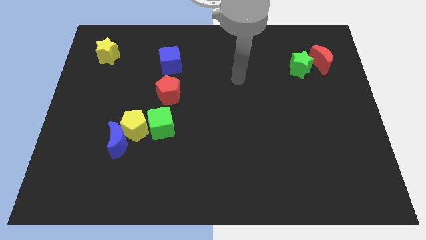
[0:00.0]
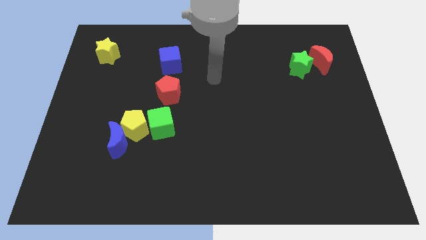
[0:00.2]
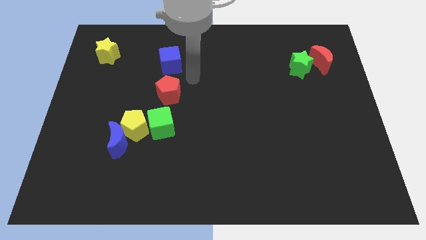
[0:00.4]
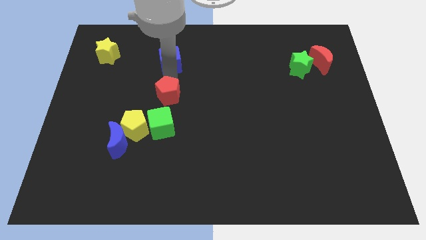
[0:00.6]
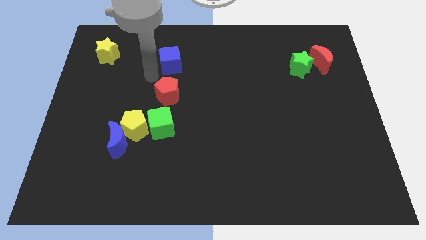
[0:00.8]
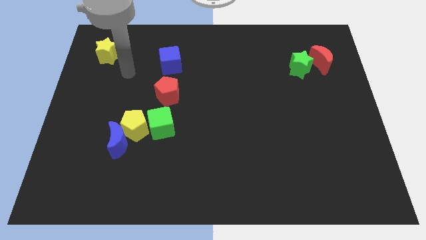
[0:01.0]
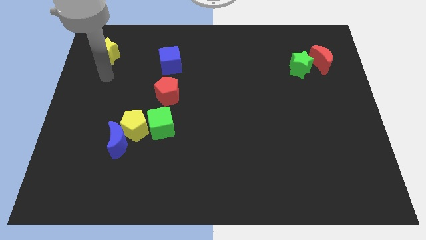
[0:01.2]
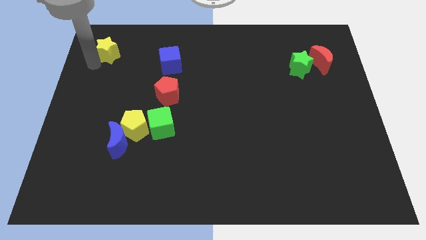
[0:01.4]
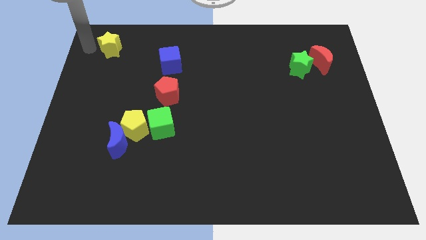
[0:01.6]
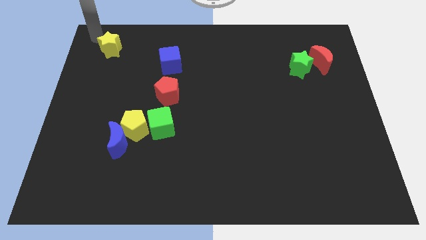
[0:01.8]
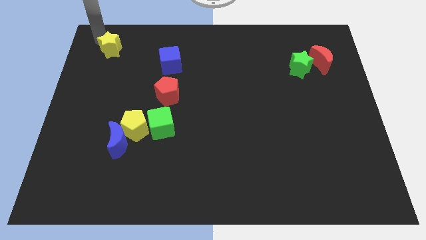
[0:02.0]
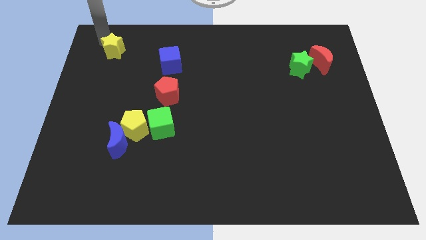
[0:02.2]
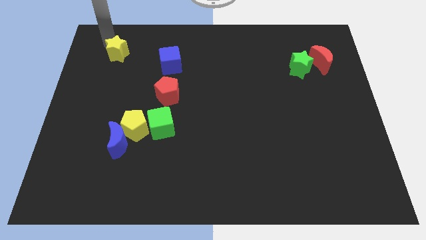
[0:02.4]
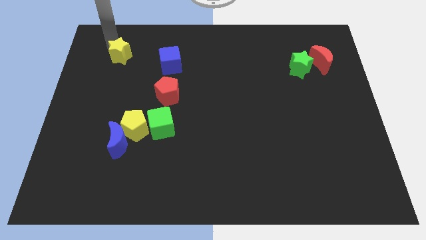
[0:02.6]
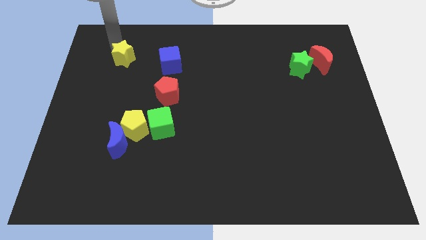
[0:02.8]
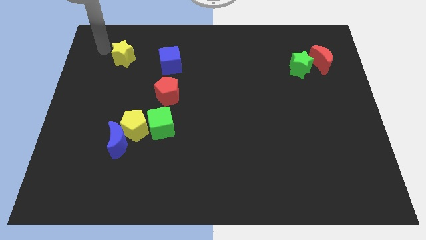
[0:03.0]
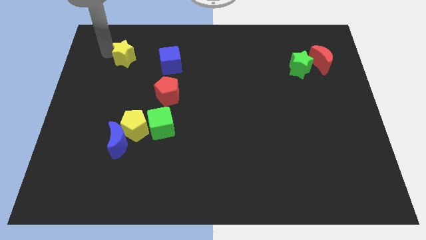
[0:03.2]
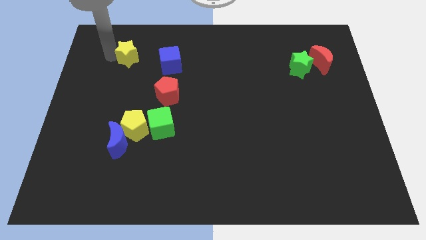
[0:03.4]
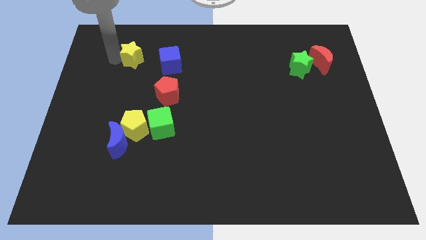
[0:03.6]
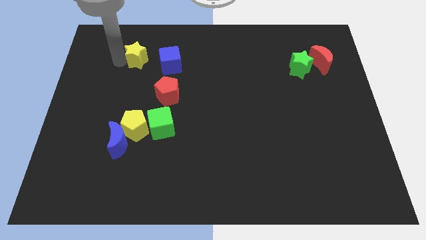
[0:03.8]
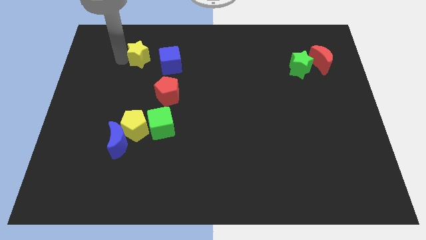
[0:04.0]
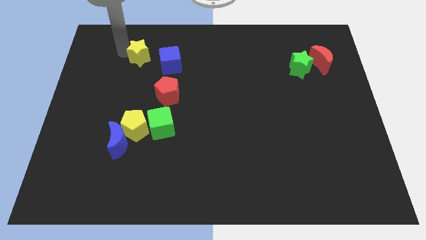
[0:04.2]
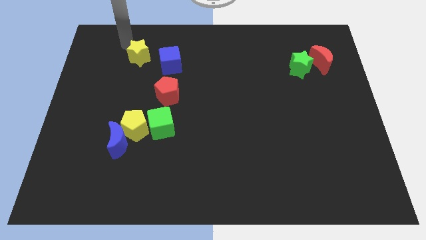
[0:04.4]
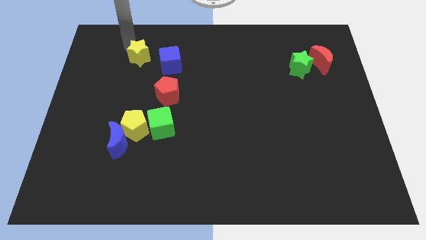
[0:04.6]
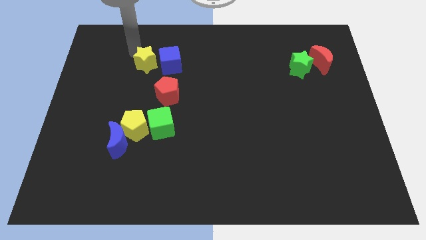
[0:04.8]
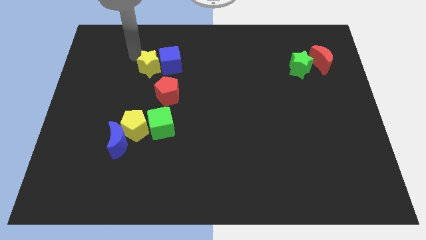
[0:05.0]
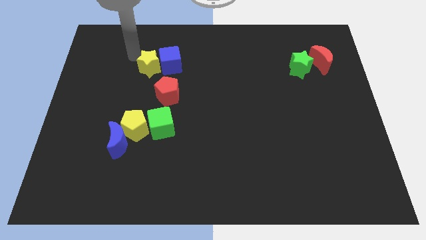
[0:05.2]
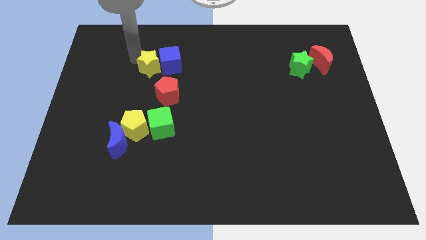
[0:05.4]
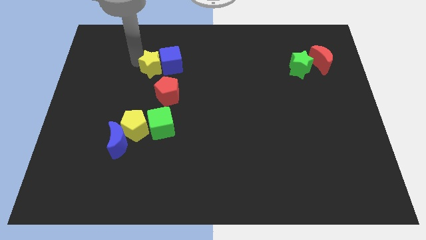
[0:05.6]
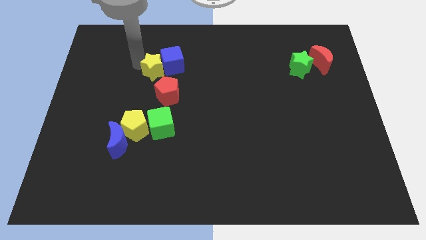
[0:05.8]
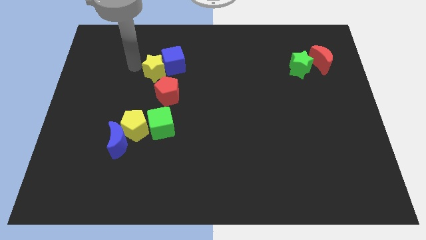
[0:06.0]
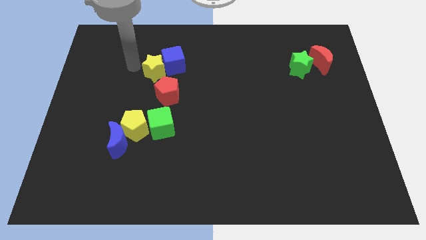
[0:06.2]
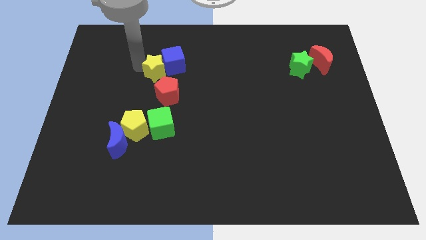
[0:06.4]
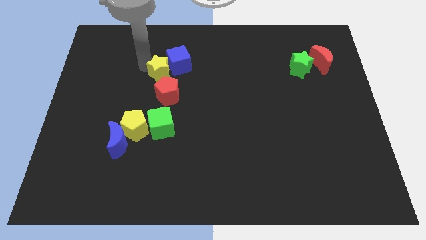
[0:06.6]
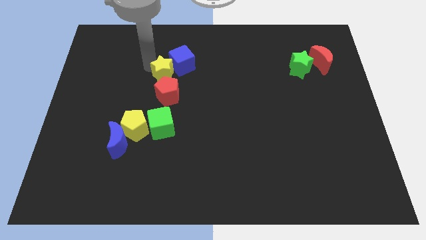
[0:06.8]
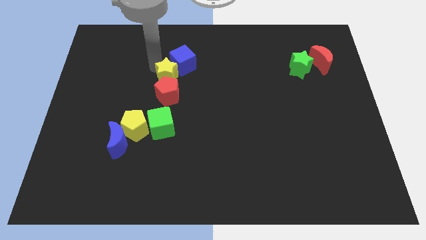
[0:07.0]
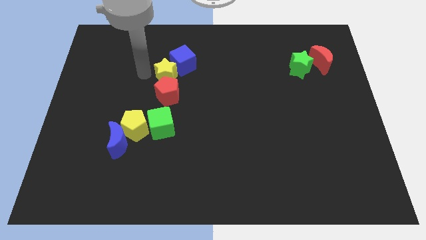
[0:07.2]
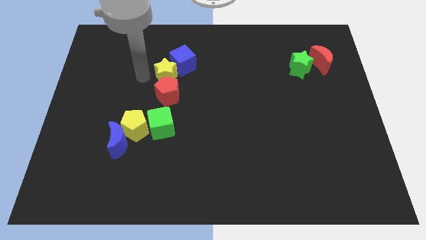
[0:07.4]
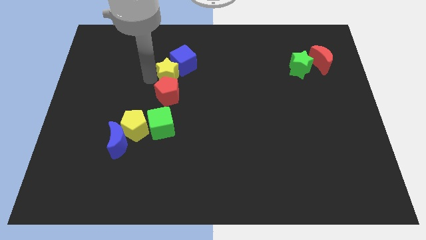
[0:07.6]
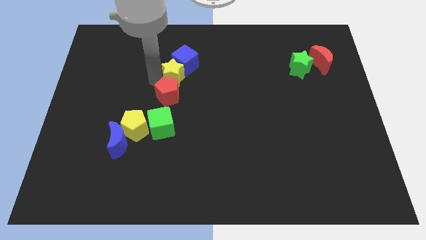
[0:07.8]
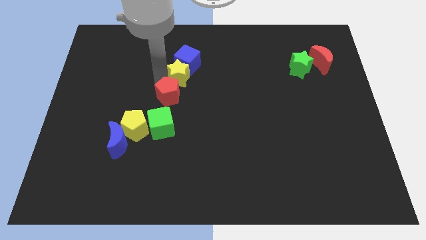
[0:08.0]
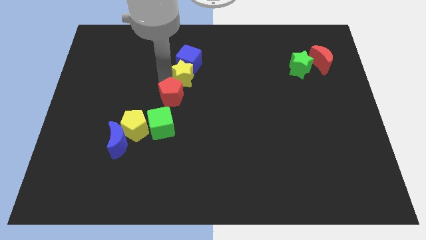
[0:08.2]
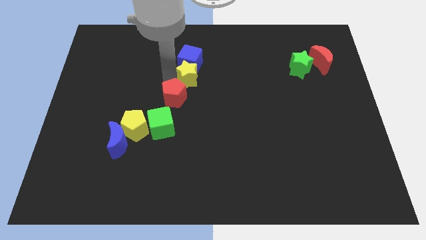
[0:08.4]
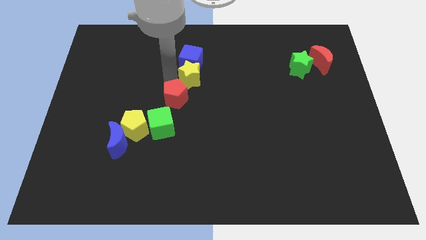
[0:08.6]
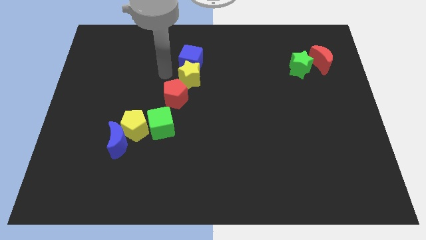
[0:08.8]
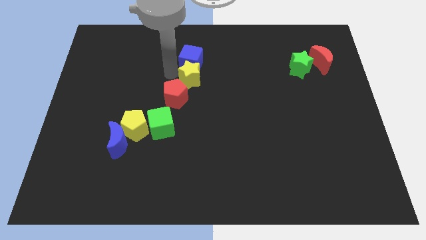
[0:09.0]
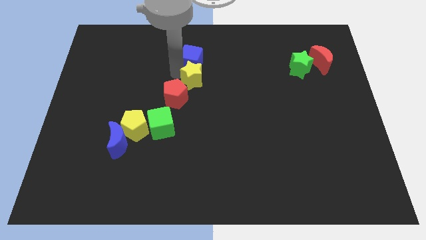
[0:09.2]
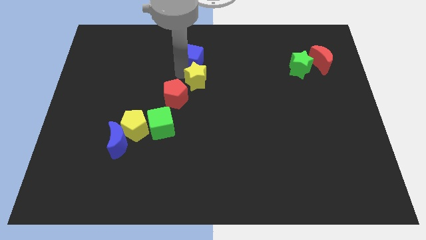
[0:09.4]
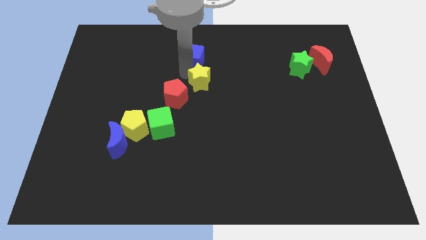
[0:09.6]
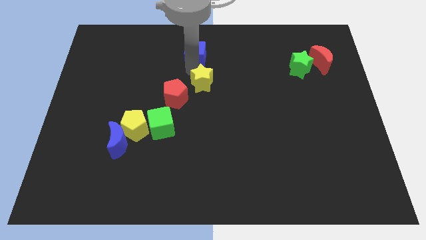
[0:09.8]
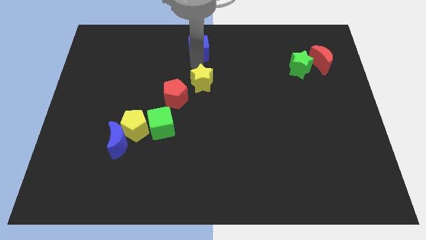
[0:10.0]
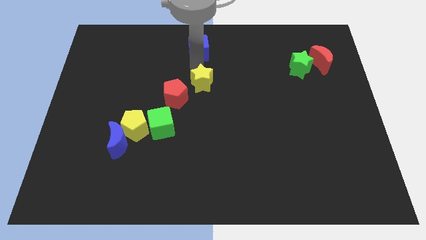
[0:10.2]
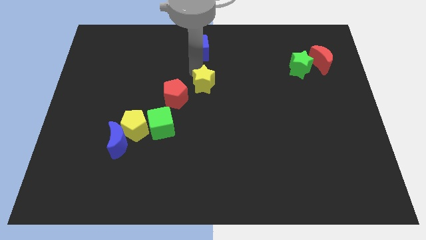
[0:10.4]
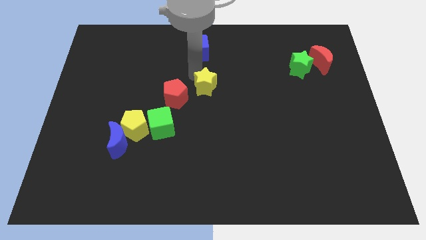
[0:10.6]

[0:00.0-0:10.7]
move the yellow star diagonally down and to the right

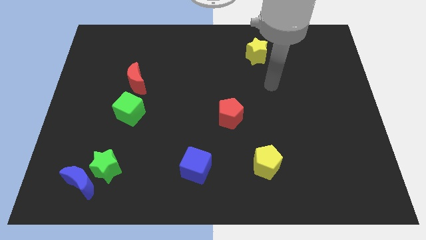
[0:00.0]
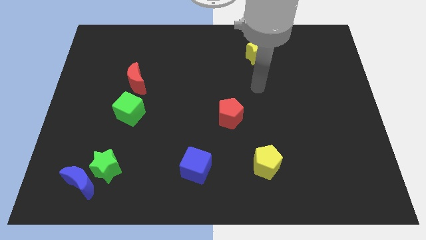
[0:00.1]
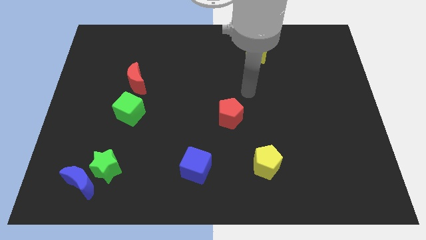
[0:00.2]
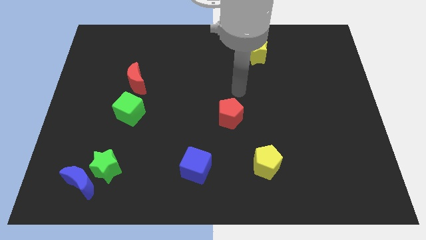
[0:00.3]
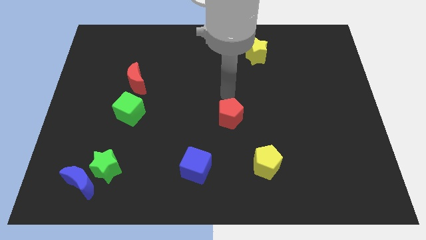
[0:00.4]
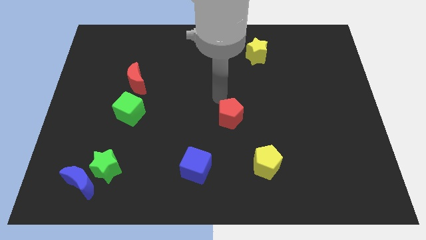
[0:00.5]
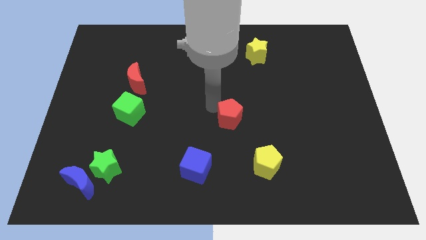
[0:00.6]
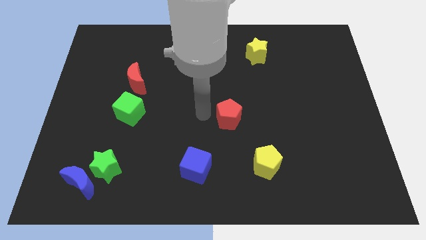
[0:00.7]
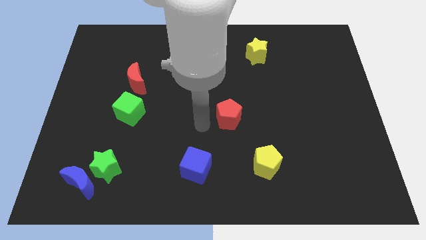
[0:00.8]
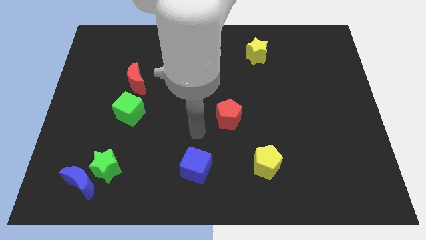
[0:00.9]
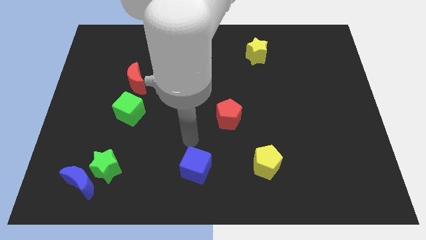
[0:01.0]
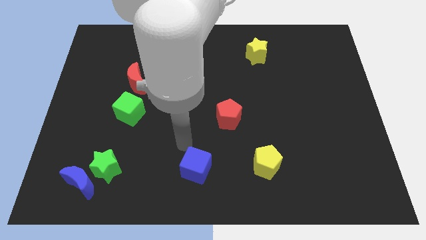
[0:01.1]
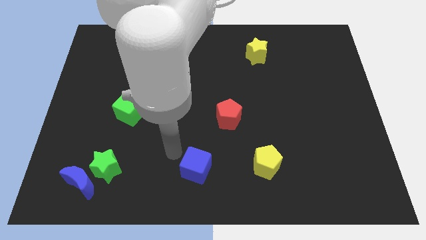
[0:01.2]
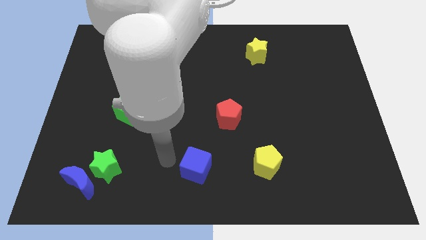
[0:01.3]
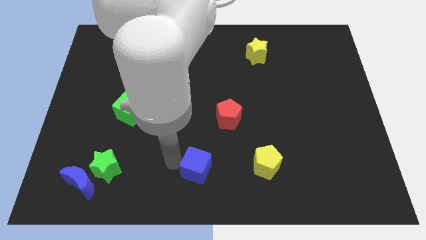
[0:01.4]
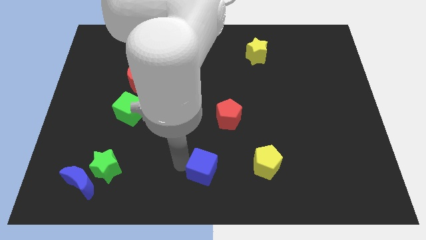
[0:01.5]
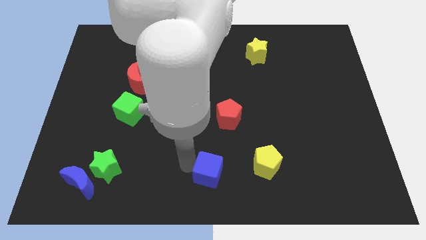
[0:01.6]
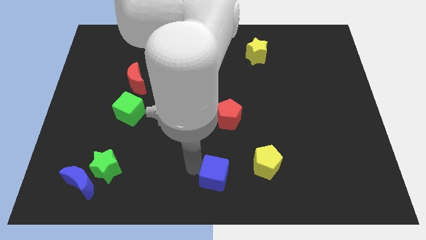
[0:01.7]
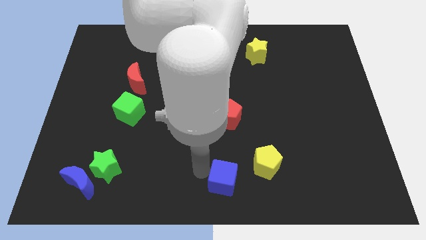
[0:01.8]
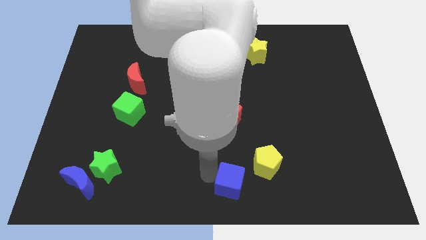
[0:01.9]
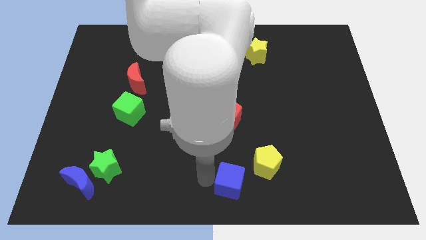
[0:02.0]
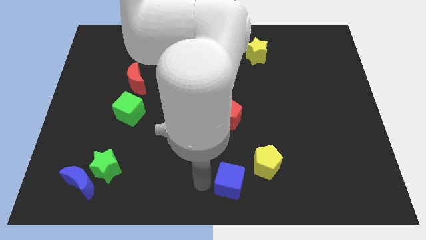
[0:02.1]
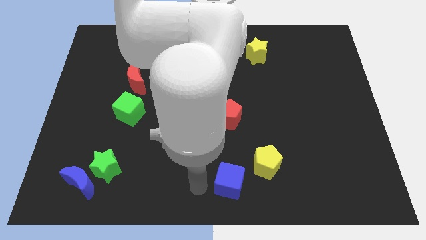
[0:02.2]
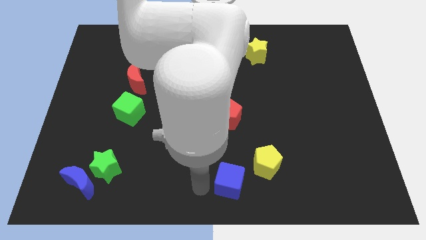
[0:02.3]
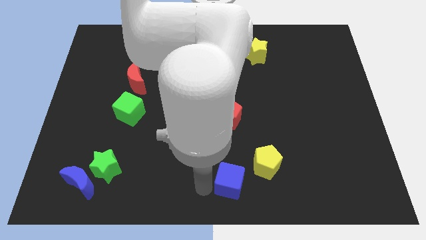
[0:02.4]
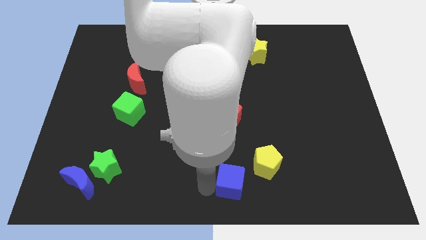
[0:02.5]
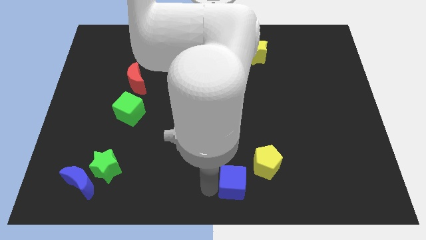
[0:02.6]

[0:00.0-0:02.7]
slide the blue cube a little to the right

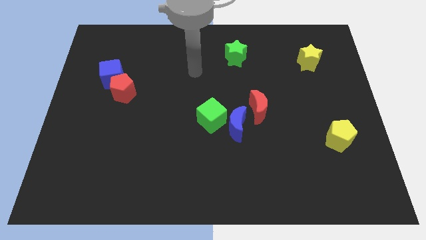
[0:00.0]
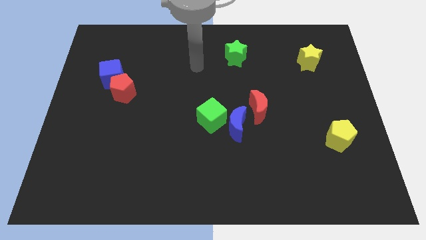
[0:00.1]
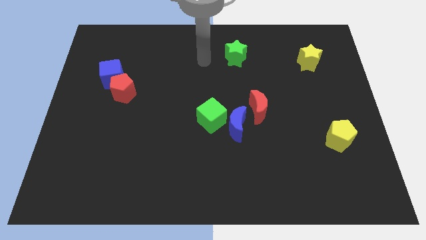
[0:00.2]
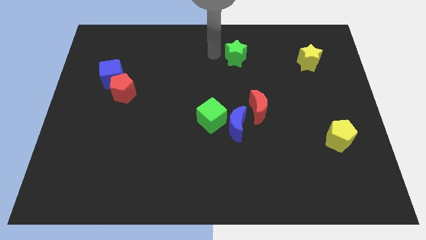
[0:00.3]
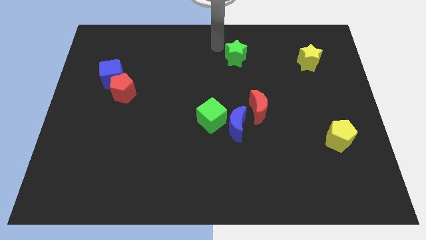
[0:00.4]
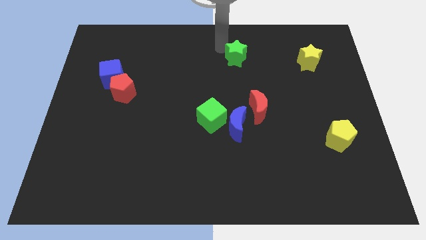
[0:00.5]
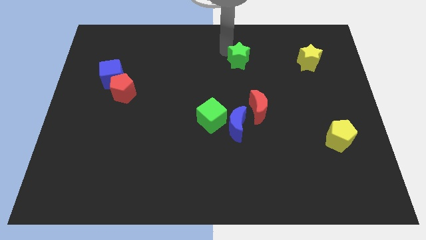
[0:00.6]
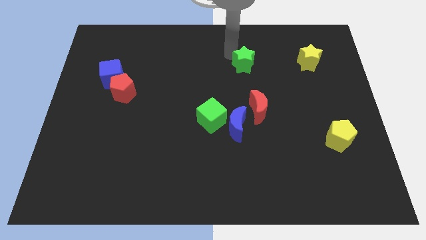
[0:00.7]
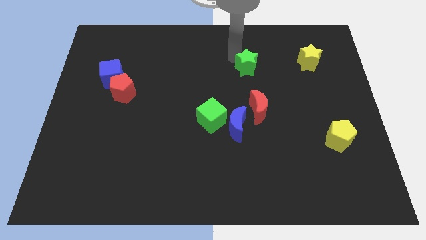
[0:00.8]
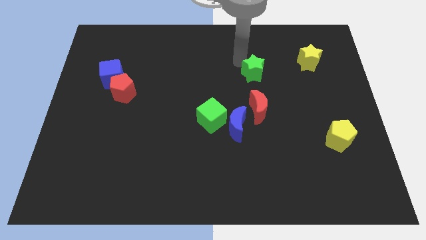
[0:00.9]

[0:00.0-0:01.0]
slightly move the green star down and then right
